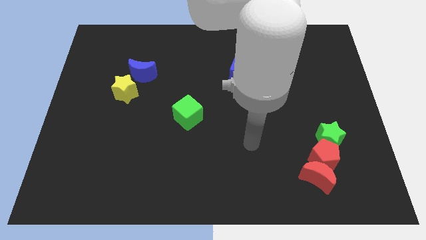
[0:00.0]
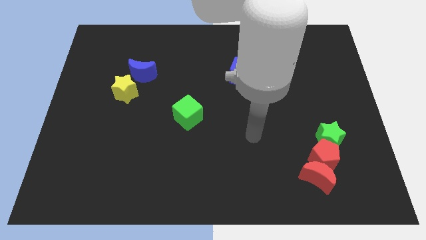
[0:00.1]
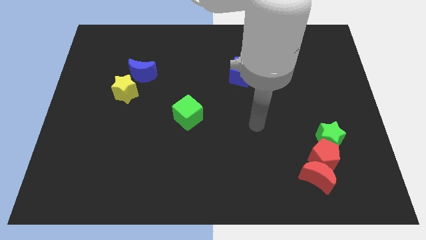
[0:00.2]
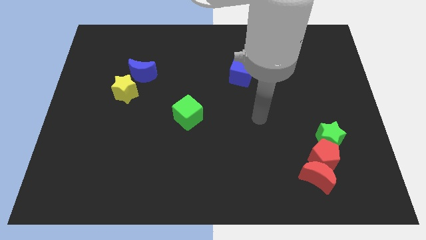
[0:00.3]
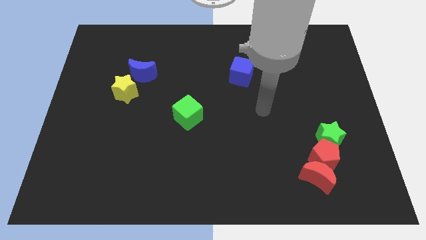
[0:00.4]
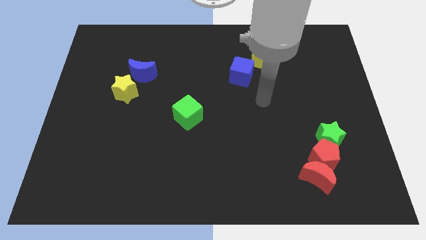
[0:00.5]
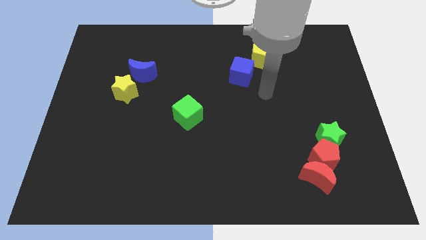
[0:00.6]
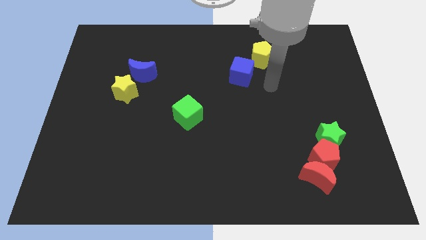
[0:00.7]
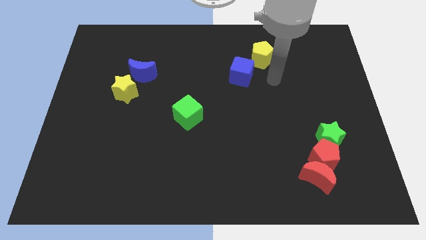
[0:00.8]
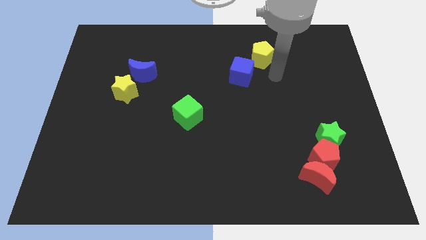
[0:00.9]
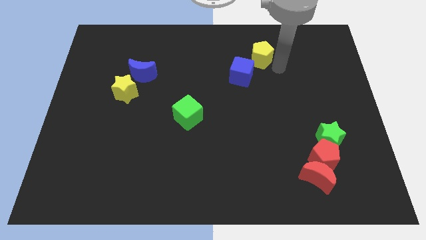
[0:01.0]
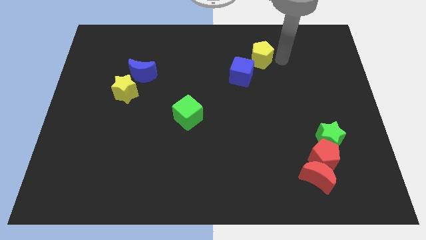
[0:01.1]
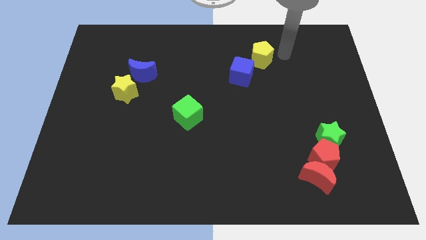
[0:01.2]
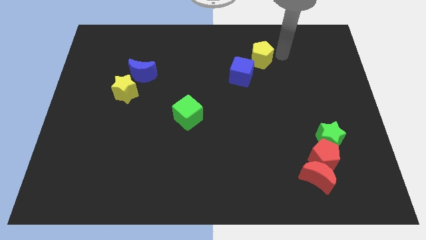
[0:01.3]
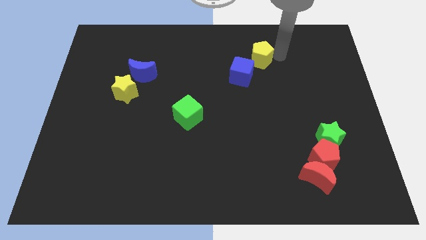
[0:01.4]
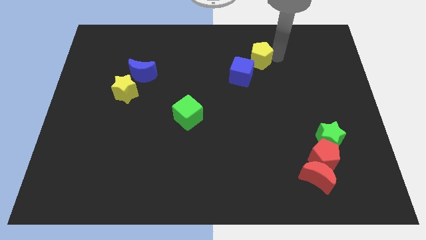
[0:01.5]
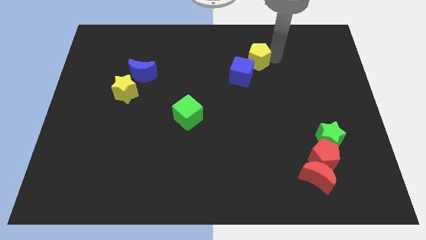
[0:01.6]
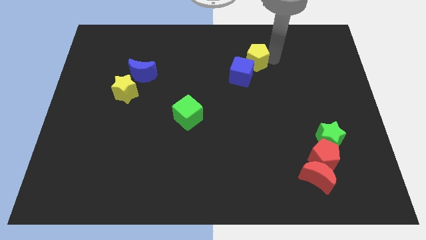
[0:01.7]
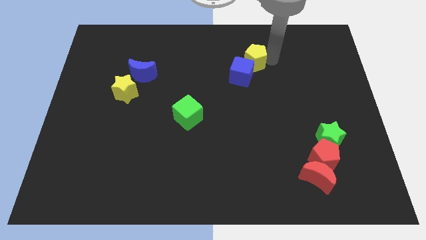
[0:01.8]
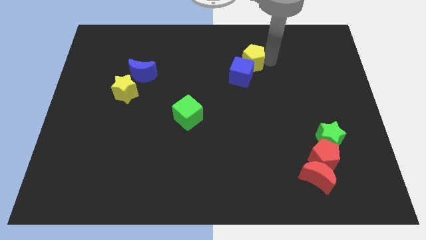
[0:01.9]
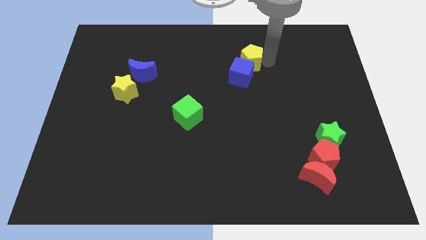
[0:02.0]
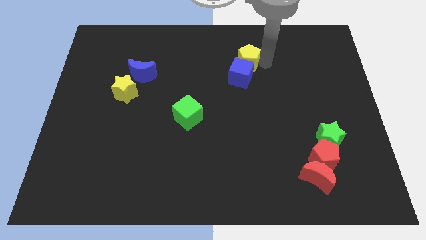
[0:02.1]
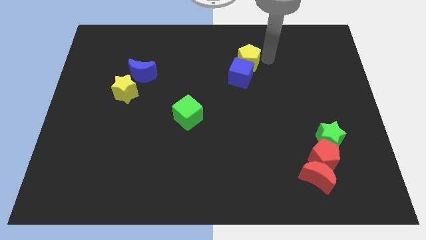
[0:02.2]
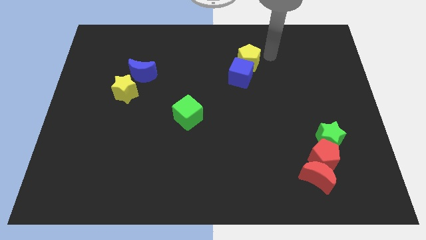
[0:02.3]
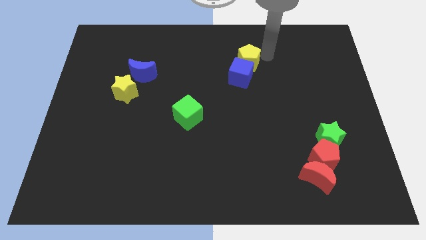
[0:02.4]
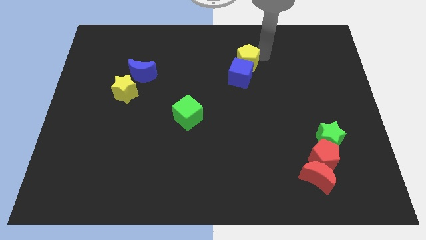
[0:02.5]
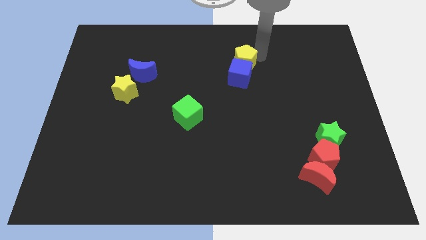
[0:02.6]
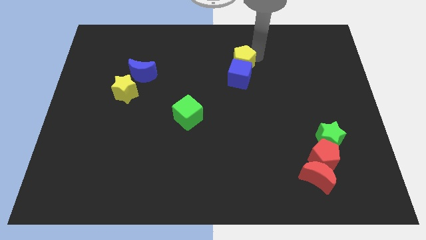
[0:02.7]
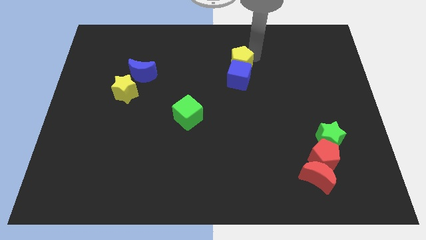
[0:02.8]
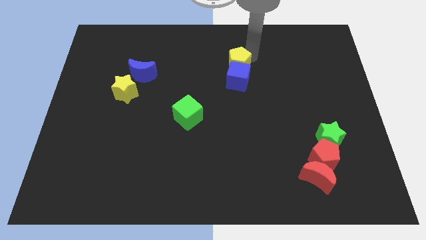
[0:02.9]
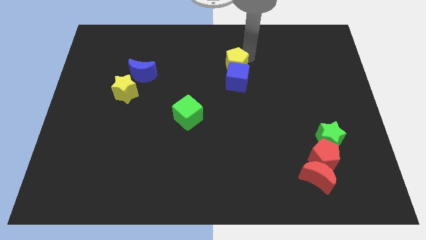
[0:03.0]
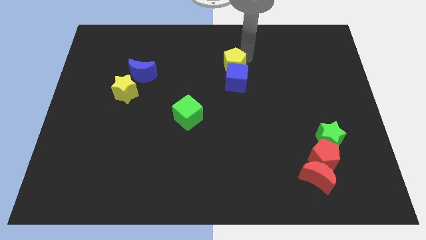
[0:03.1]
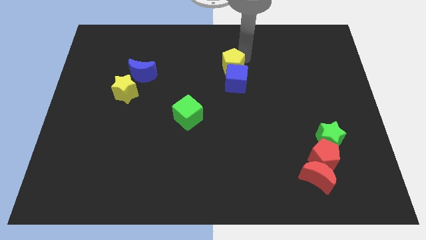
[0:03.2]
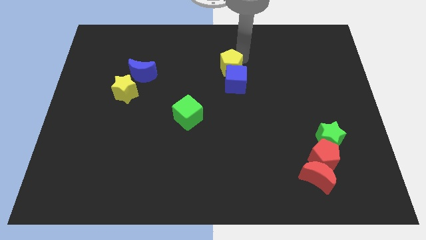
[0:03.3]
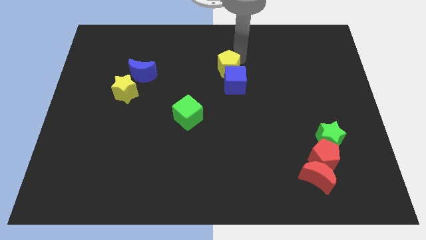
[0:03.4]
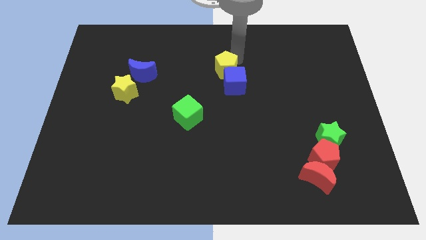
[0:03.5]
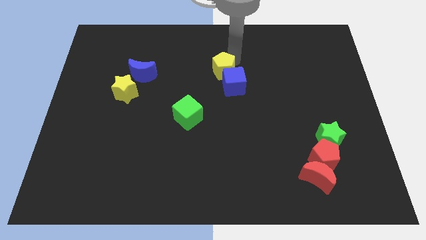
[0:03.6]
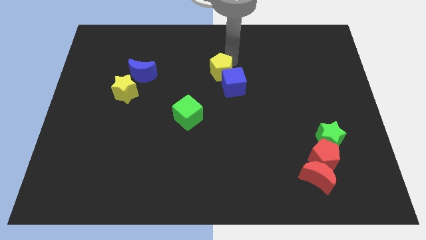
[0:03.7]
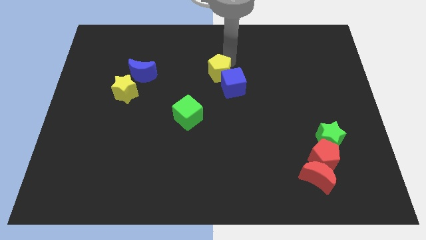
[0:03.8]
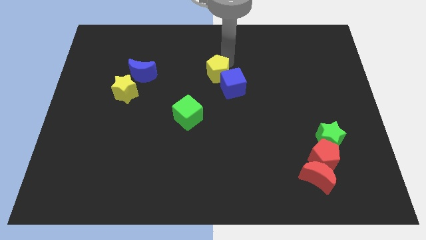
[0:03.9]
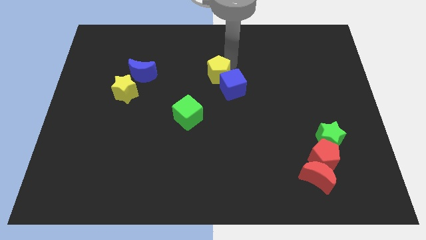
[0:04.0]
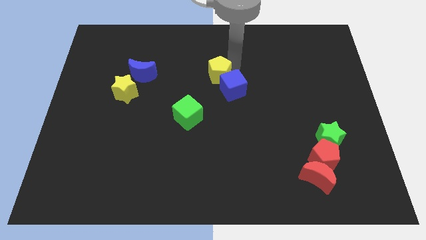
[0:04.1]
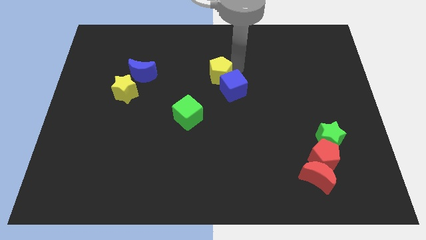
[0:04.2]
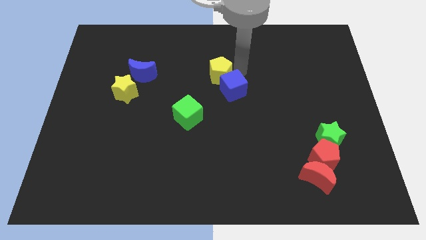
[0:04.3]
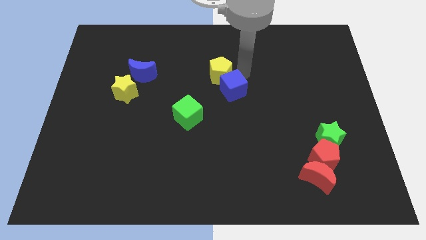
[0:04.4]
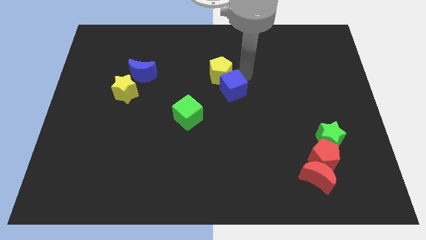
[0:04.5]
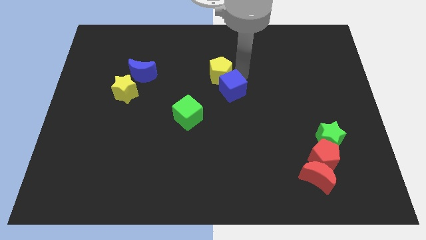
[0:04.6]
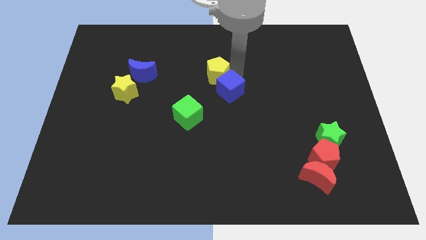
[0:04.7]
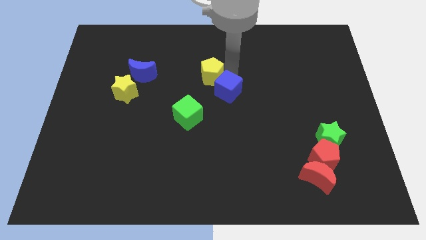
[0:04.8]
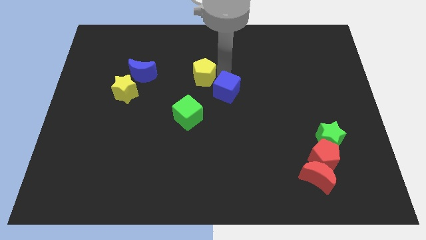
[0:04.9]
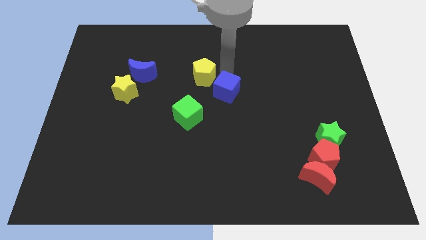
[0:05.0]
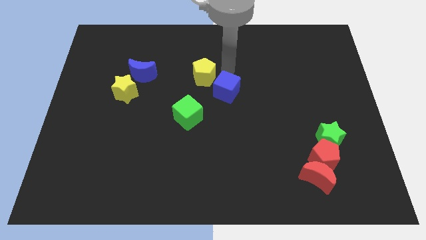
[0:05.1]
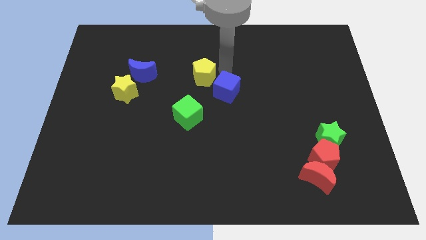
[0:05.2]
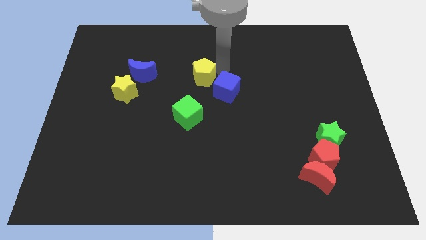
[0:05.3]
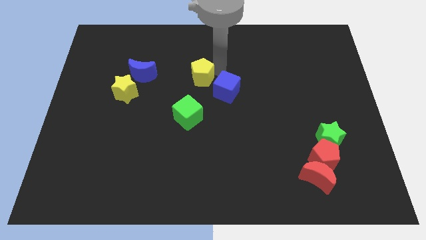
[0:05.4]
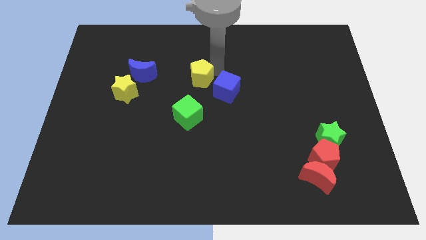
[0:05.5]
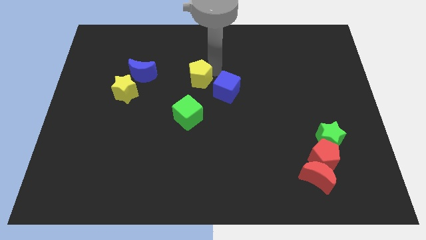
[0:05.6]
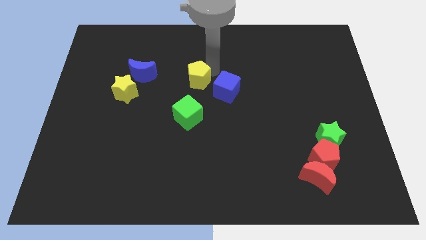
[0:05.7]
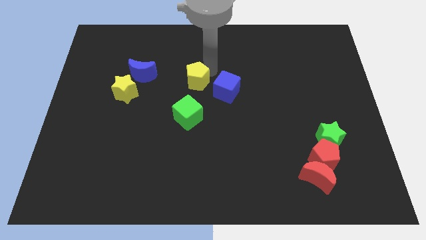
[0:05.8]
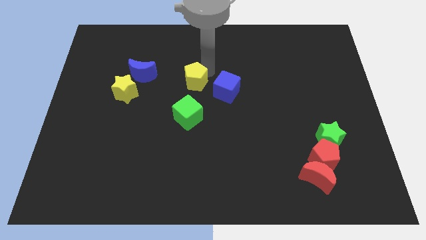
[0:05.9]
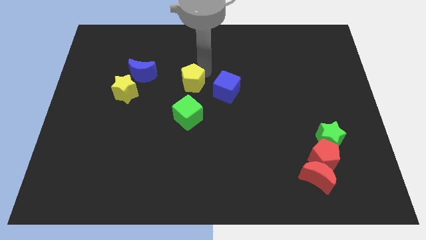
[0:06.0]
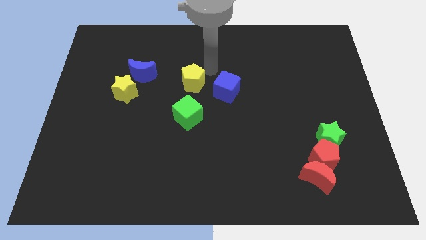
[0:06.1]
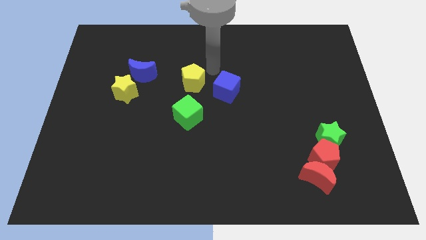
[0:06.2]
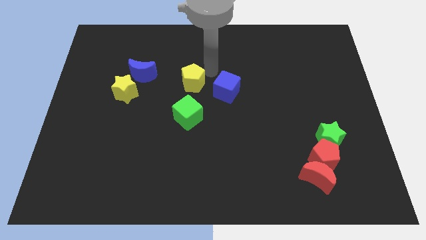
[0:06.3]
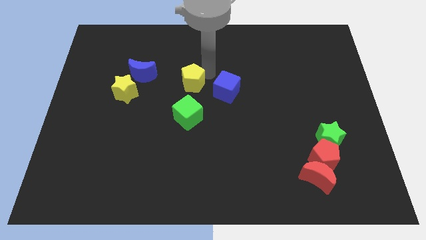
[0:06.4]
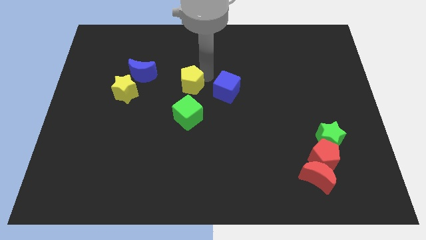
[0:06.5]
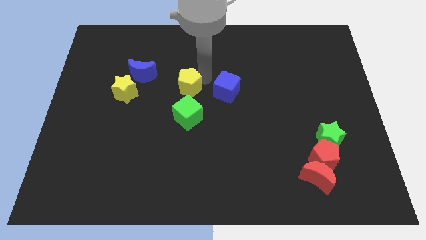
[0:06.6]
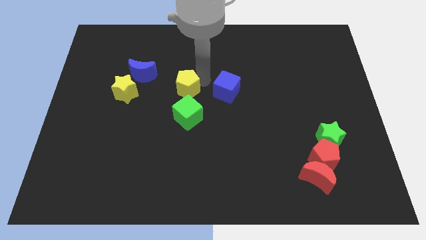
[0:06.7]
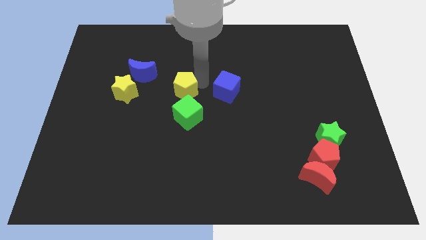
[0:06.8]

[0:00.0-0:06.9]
push the yellow pentagon diagonally downwards and left

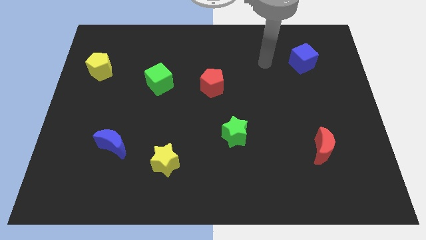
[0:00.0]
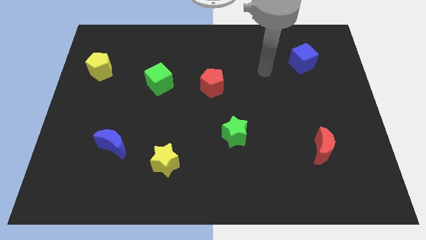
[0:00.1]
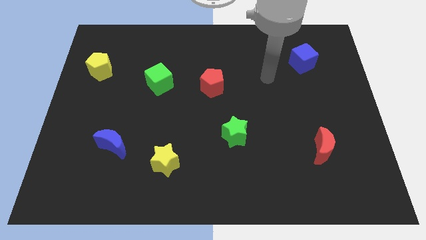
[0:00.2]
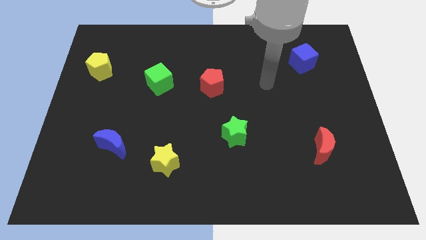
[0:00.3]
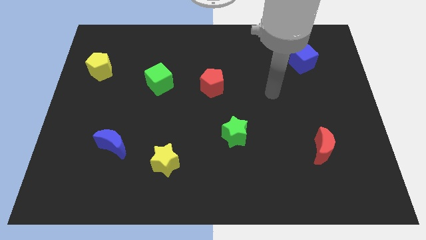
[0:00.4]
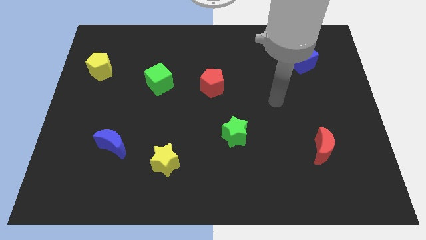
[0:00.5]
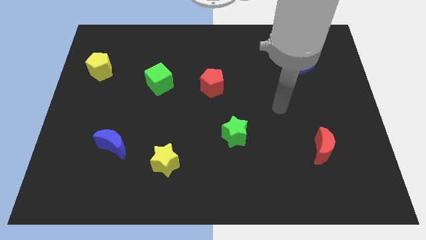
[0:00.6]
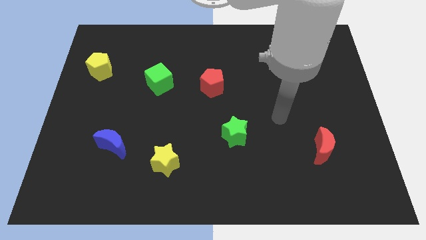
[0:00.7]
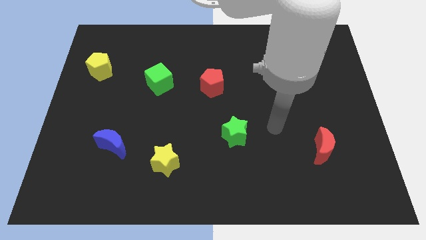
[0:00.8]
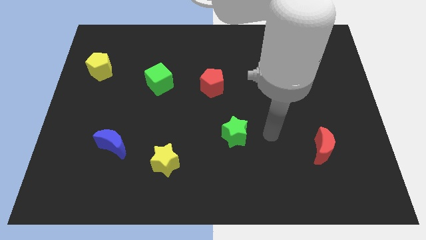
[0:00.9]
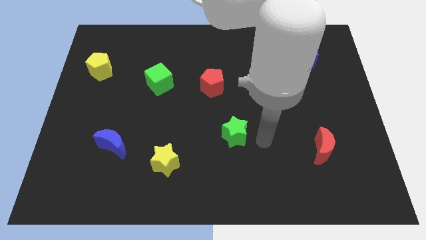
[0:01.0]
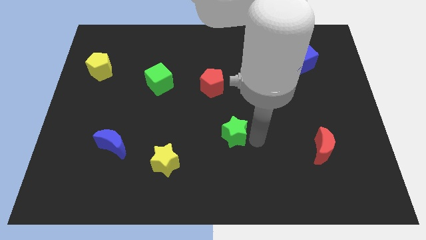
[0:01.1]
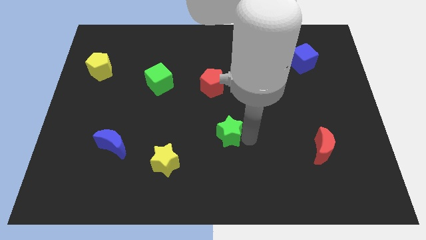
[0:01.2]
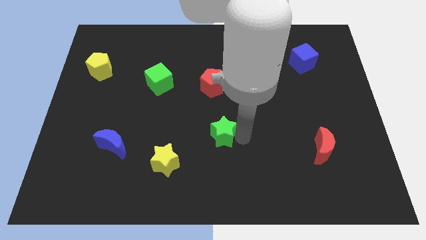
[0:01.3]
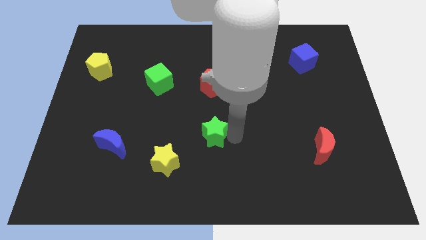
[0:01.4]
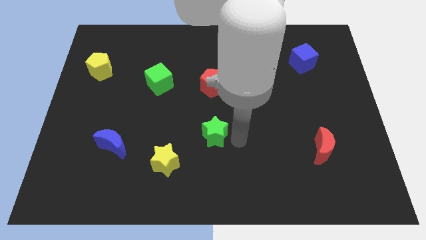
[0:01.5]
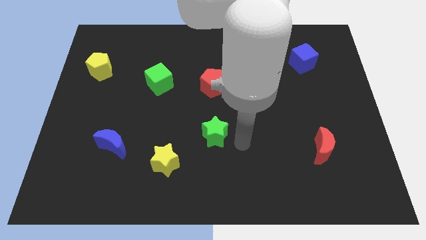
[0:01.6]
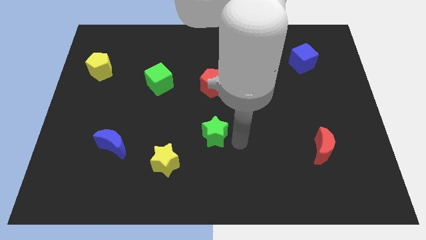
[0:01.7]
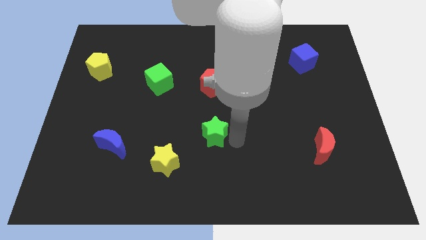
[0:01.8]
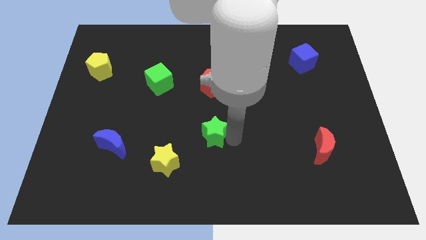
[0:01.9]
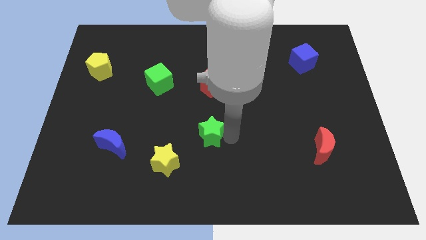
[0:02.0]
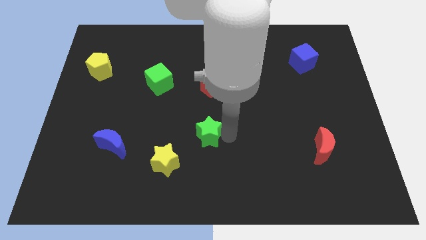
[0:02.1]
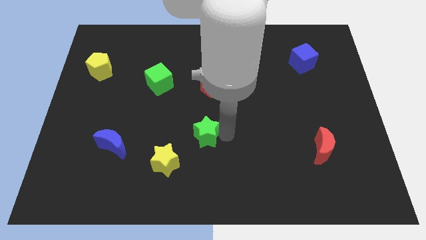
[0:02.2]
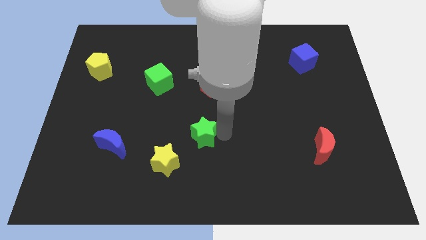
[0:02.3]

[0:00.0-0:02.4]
move the green star a bit left
